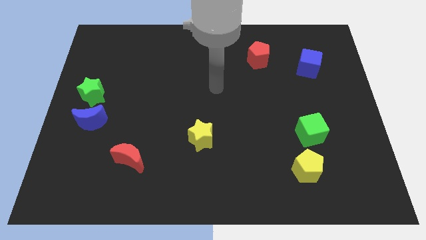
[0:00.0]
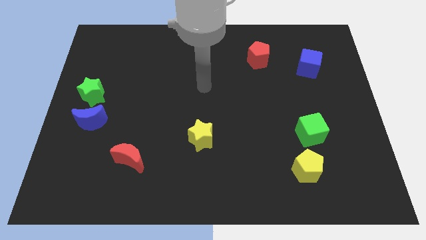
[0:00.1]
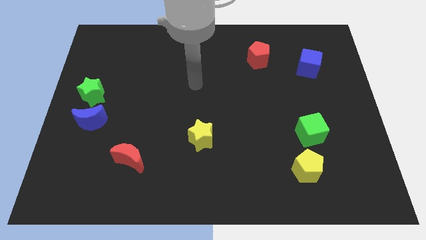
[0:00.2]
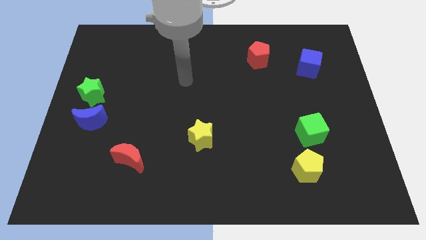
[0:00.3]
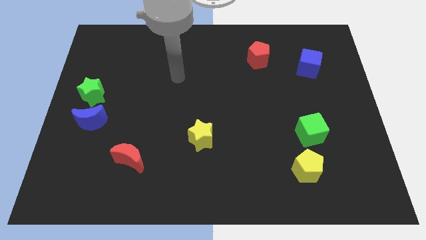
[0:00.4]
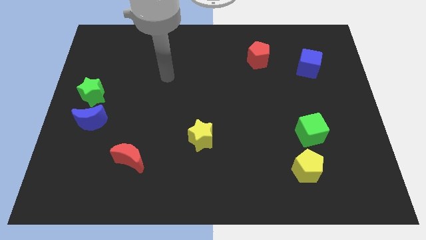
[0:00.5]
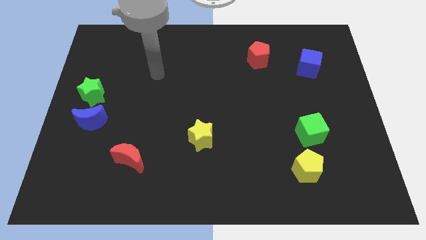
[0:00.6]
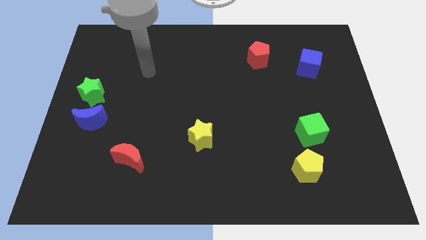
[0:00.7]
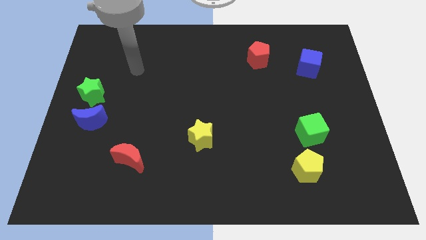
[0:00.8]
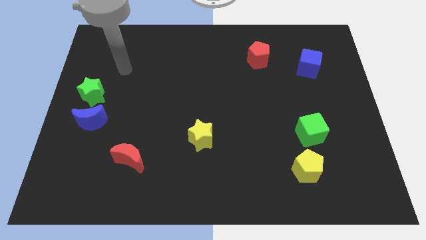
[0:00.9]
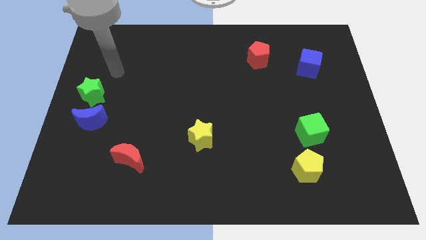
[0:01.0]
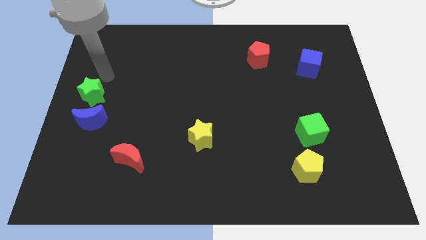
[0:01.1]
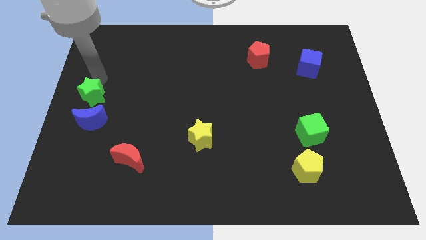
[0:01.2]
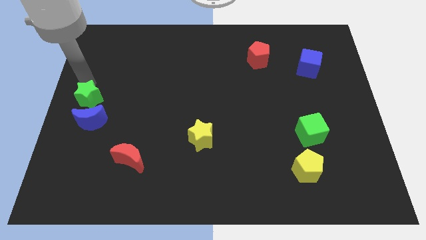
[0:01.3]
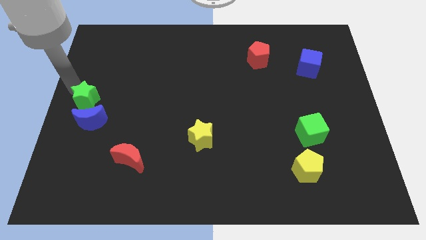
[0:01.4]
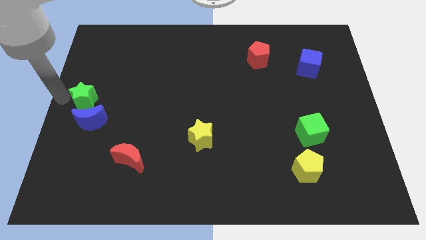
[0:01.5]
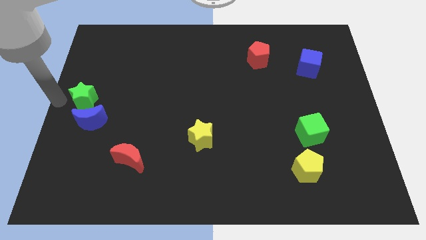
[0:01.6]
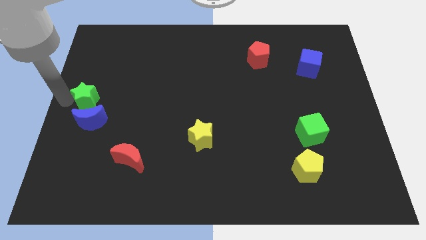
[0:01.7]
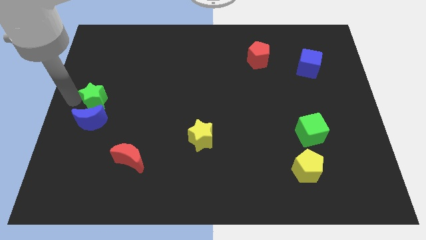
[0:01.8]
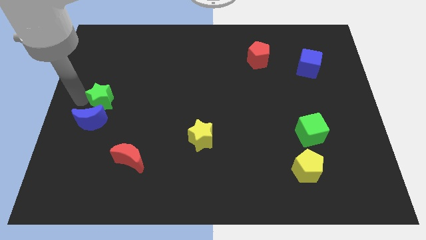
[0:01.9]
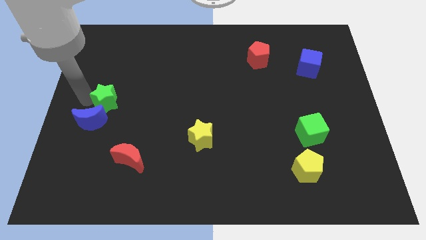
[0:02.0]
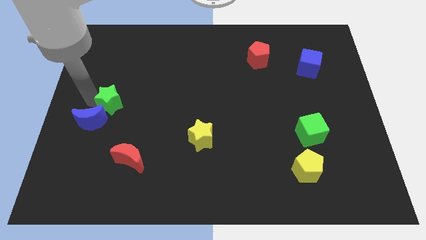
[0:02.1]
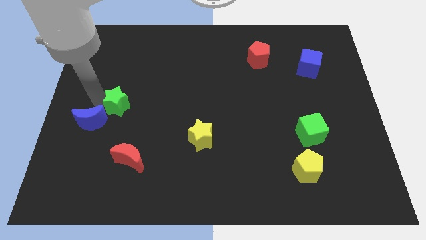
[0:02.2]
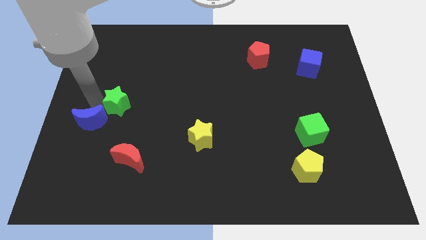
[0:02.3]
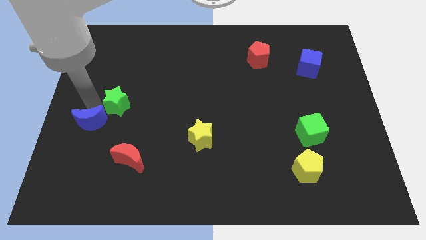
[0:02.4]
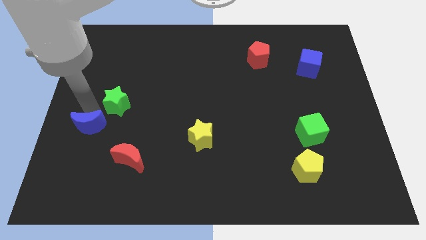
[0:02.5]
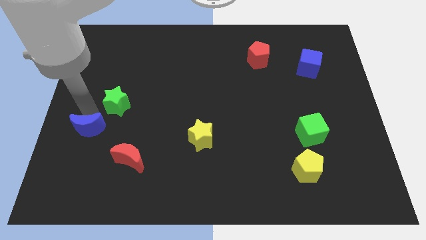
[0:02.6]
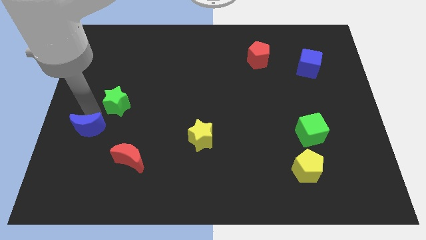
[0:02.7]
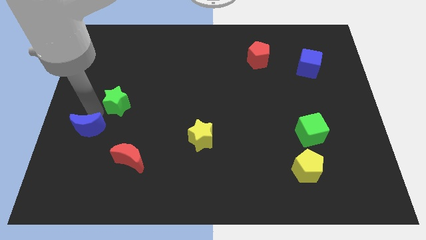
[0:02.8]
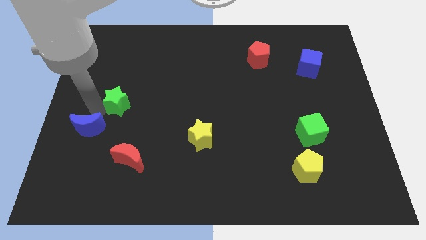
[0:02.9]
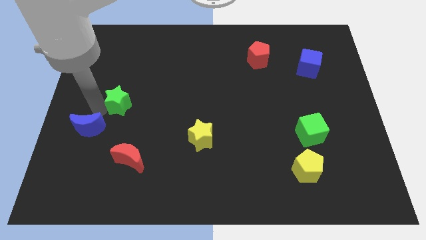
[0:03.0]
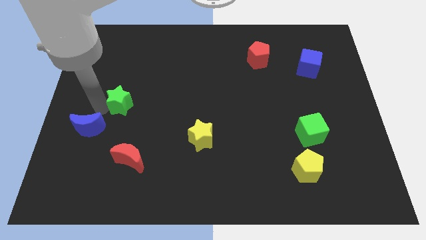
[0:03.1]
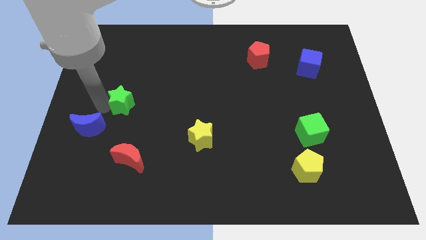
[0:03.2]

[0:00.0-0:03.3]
slightly move the green star to the right

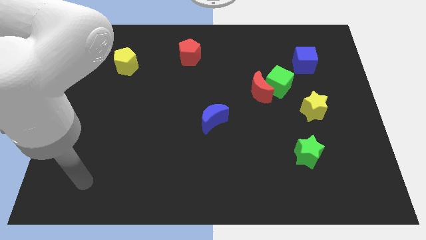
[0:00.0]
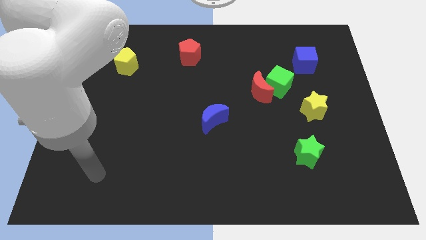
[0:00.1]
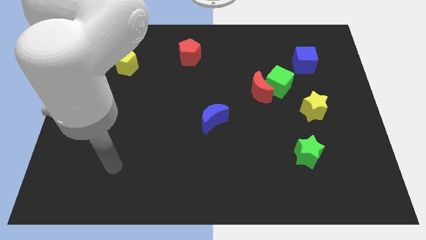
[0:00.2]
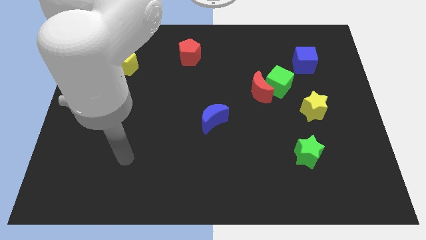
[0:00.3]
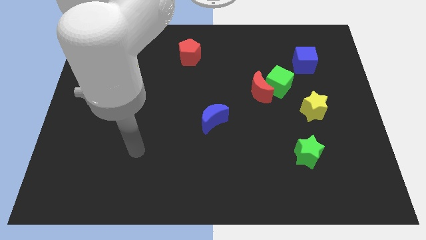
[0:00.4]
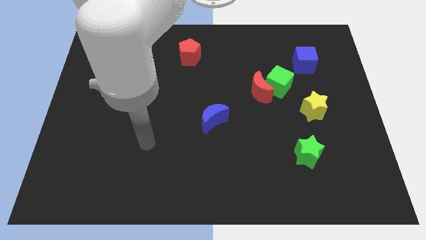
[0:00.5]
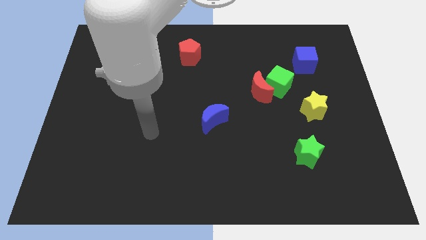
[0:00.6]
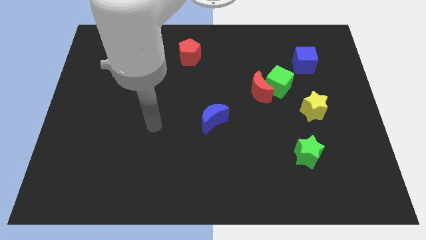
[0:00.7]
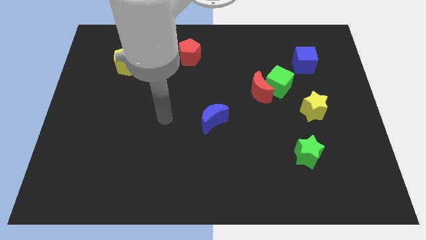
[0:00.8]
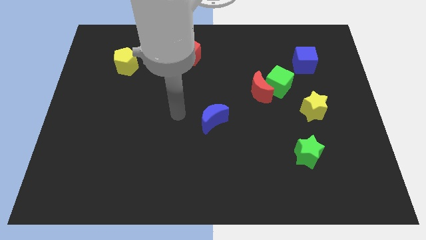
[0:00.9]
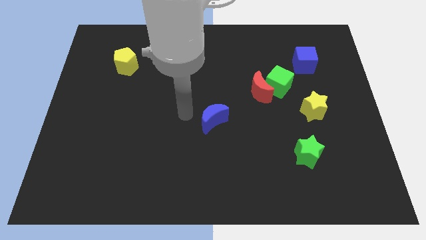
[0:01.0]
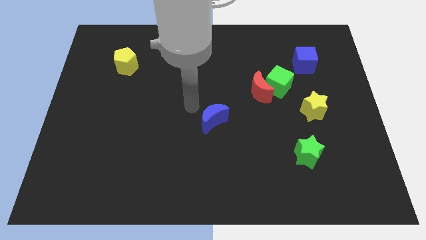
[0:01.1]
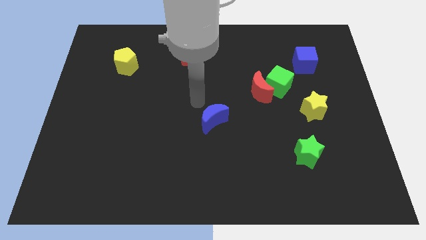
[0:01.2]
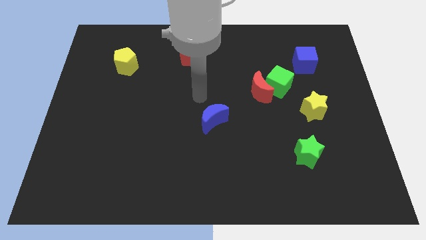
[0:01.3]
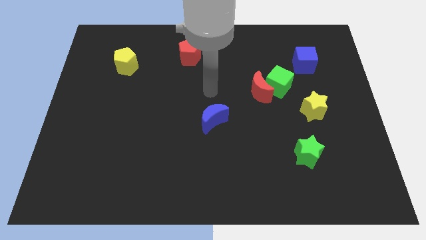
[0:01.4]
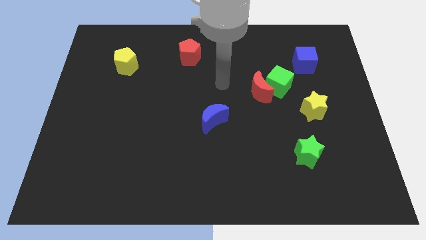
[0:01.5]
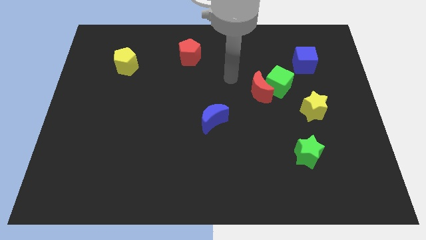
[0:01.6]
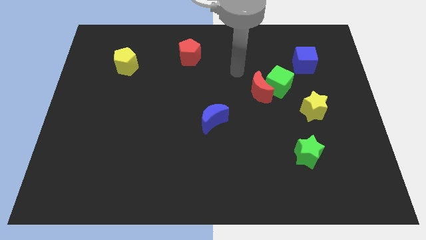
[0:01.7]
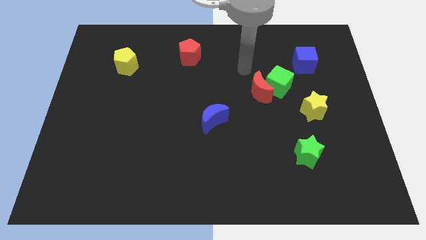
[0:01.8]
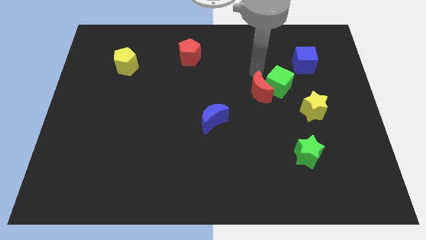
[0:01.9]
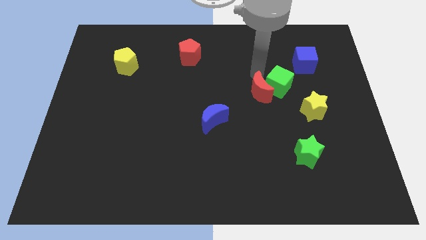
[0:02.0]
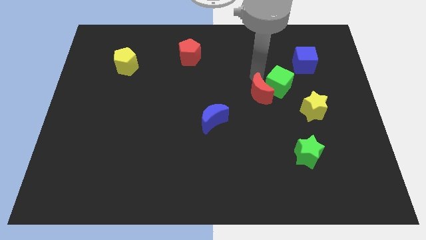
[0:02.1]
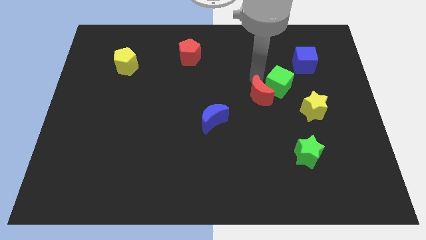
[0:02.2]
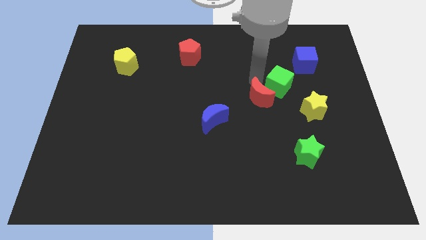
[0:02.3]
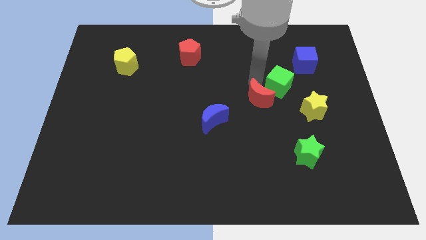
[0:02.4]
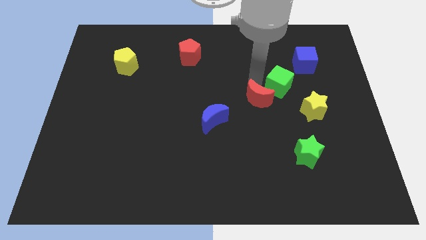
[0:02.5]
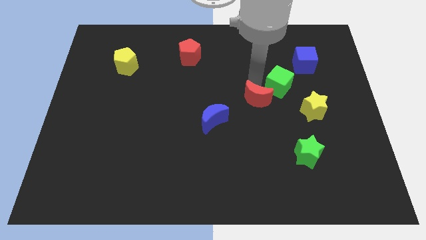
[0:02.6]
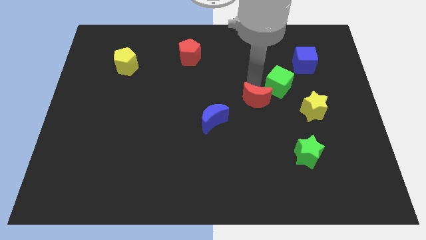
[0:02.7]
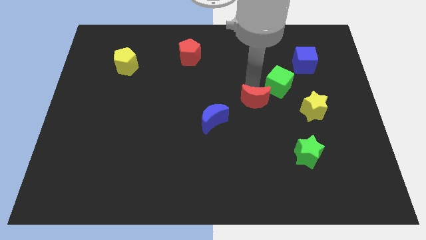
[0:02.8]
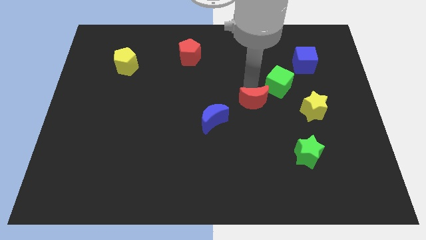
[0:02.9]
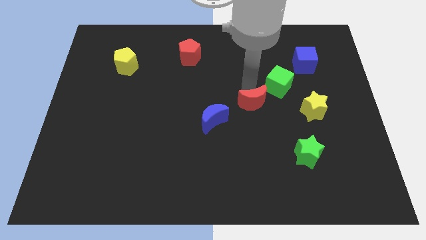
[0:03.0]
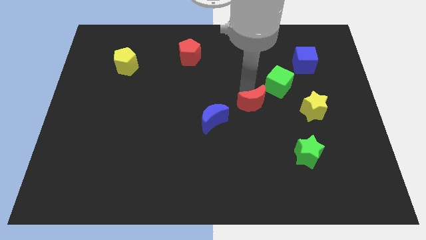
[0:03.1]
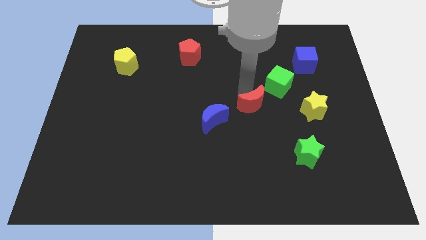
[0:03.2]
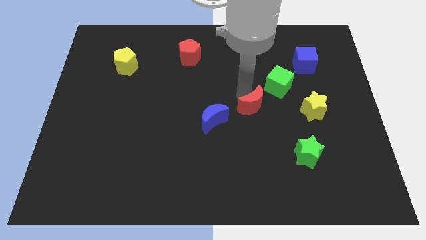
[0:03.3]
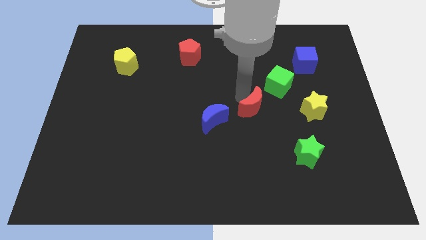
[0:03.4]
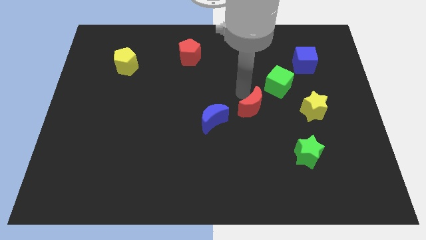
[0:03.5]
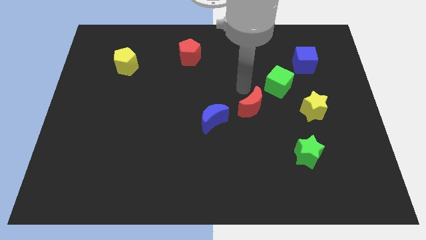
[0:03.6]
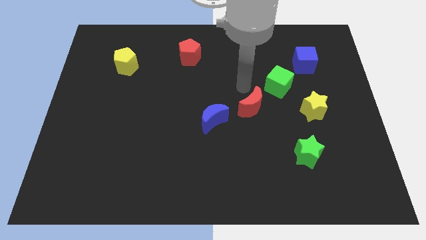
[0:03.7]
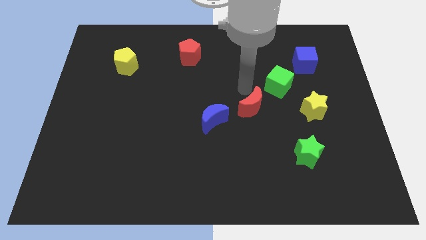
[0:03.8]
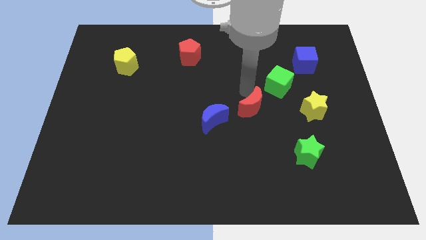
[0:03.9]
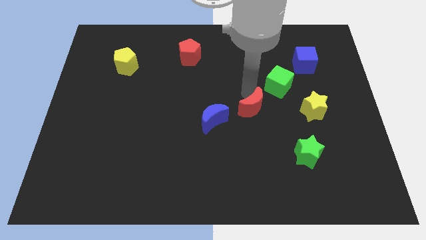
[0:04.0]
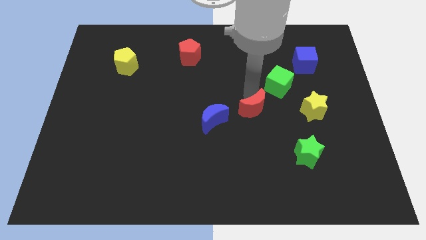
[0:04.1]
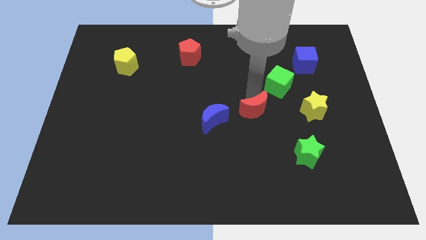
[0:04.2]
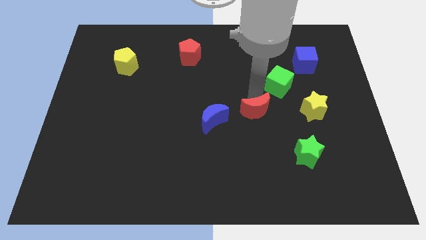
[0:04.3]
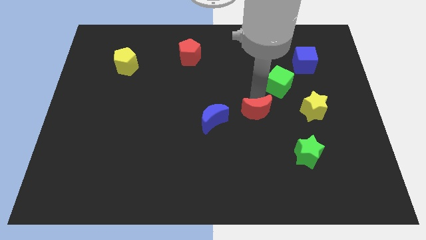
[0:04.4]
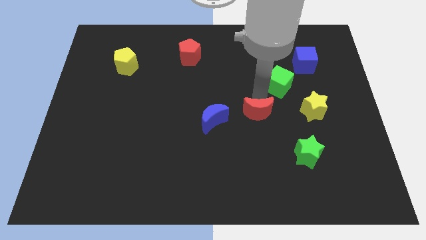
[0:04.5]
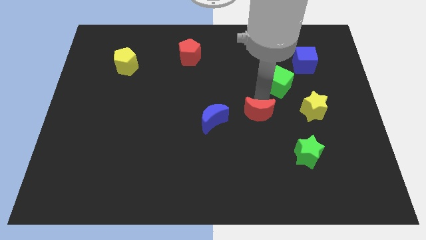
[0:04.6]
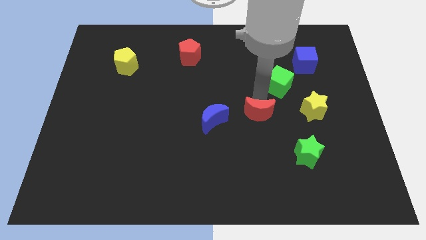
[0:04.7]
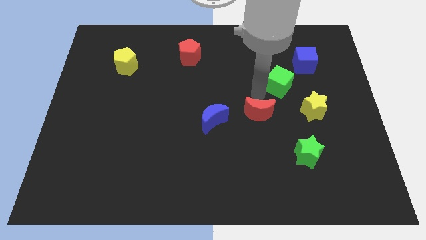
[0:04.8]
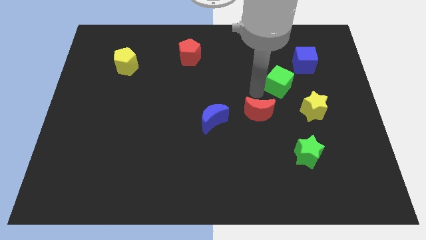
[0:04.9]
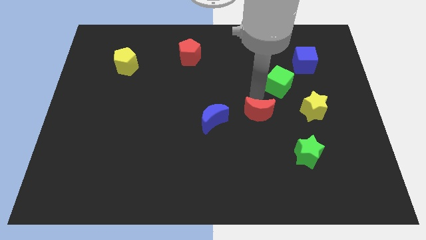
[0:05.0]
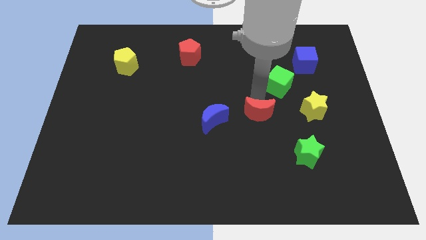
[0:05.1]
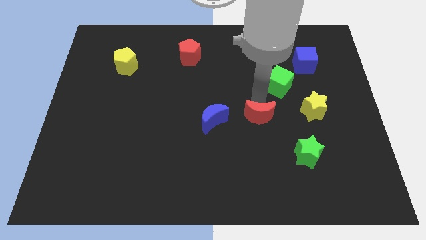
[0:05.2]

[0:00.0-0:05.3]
slightly push the red moon down
